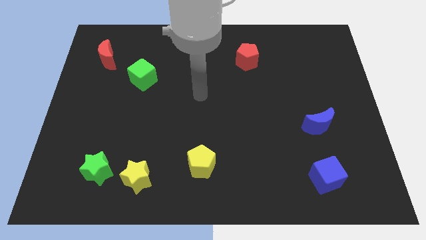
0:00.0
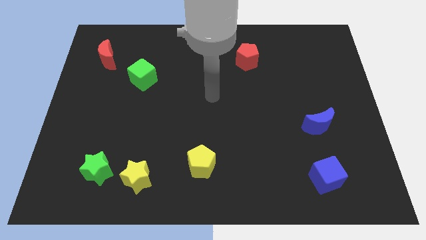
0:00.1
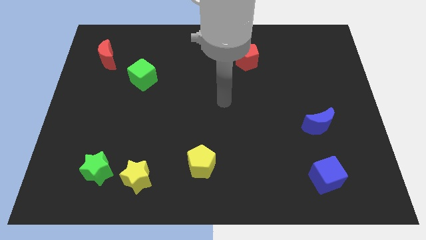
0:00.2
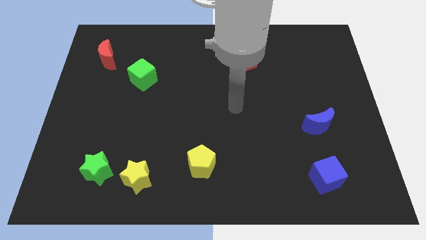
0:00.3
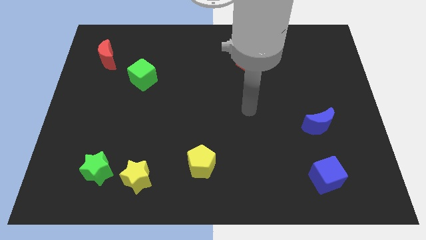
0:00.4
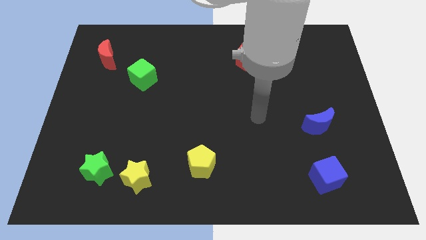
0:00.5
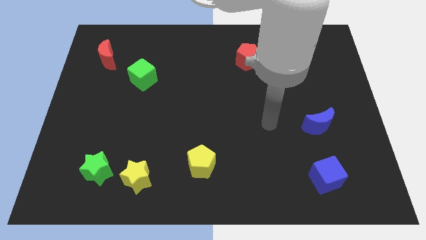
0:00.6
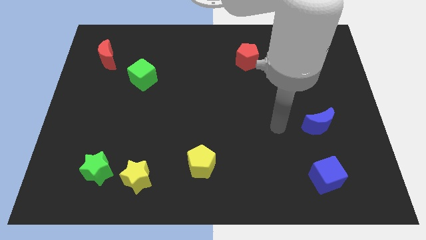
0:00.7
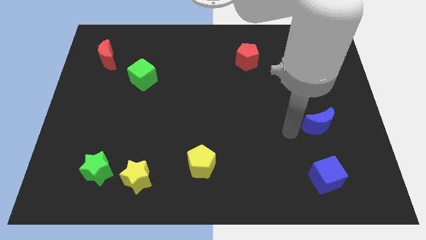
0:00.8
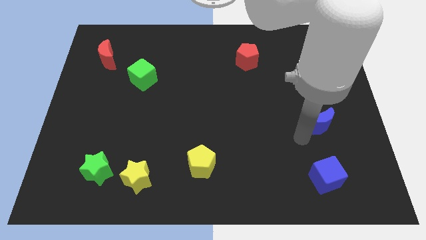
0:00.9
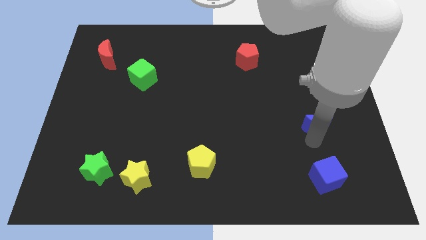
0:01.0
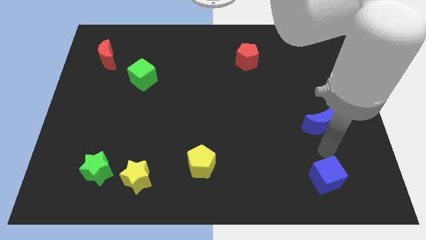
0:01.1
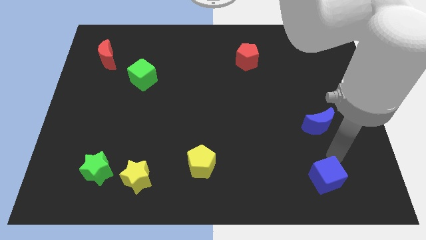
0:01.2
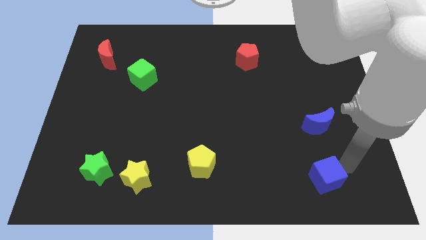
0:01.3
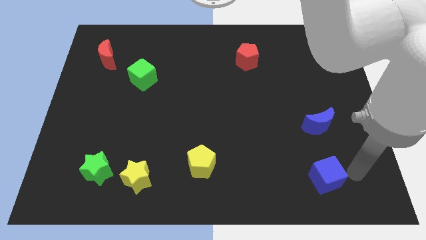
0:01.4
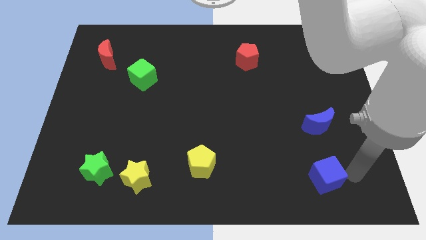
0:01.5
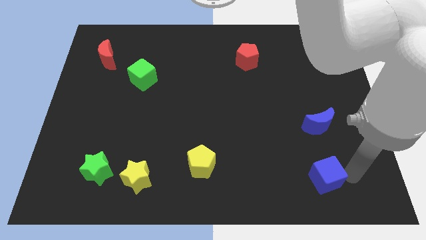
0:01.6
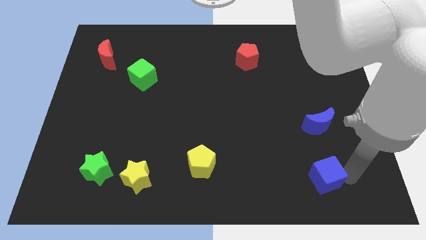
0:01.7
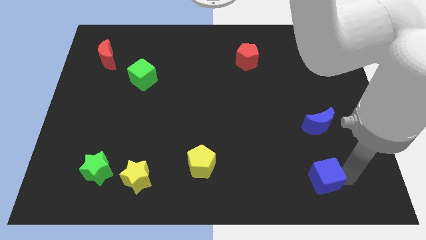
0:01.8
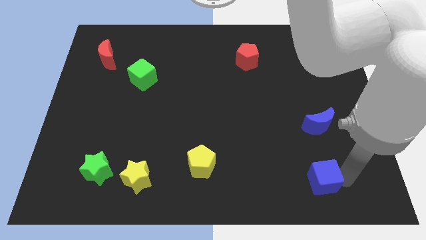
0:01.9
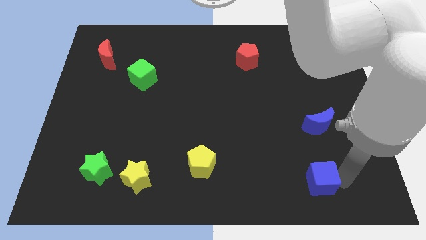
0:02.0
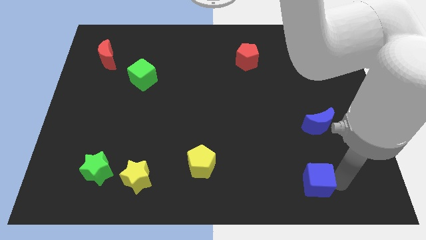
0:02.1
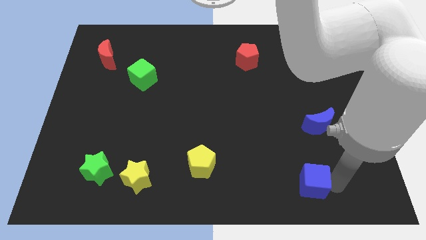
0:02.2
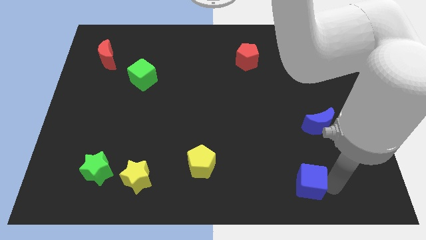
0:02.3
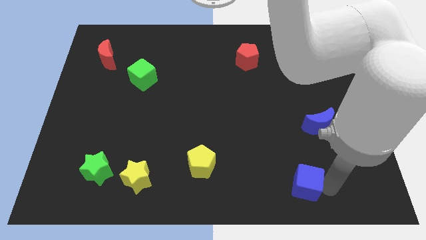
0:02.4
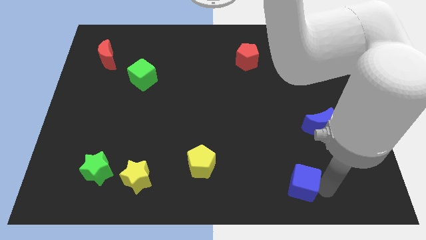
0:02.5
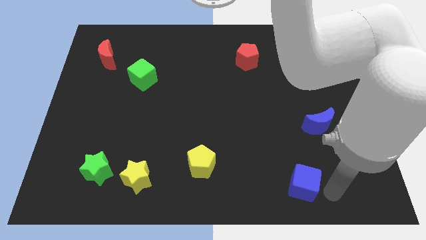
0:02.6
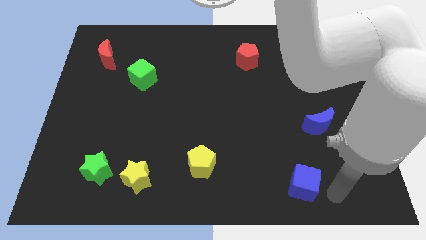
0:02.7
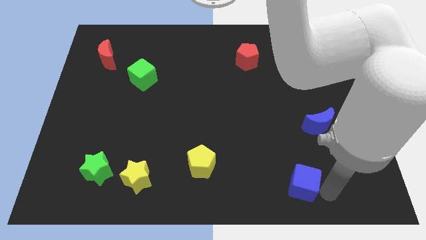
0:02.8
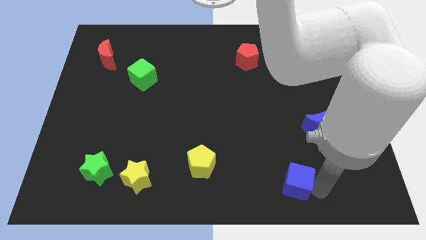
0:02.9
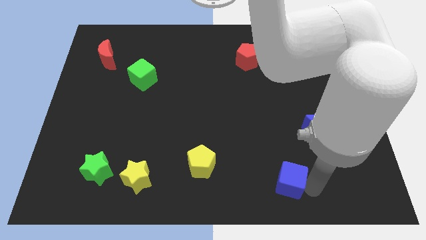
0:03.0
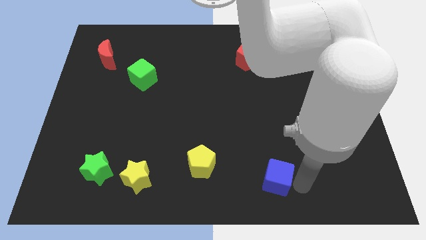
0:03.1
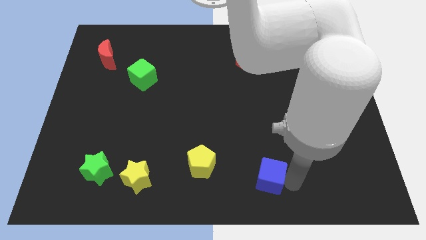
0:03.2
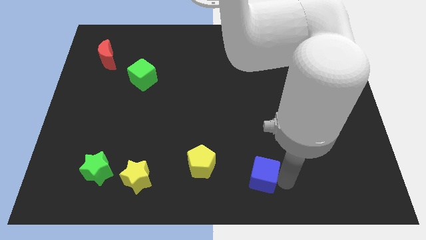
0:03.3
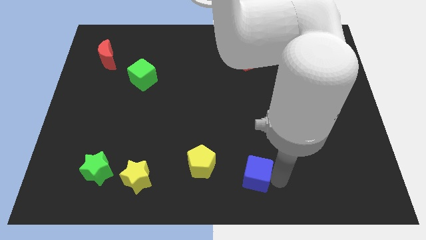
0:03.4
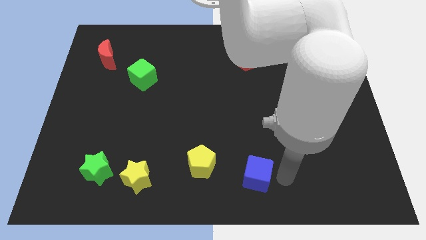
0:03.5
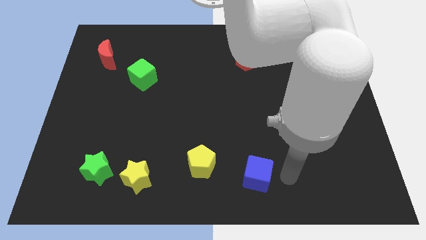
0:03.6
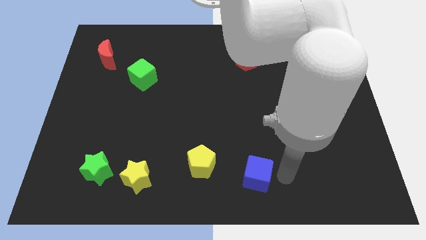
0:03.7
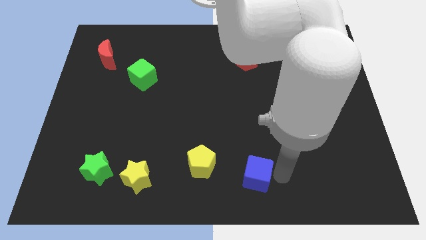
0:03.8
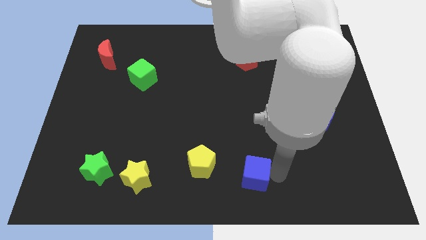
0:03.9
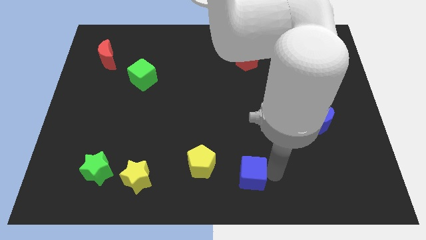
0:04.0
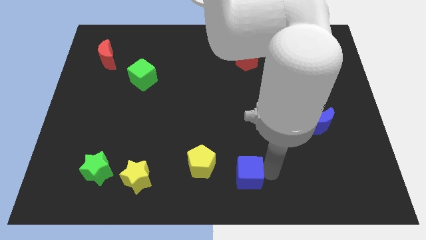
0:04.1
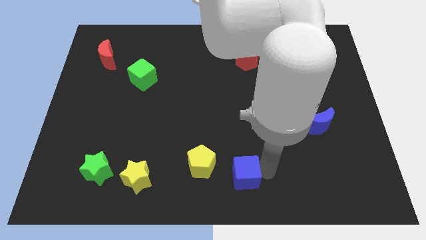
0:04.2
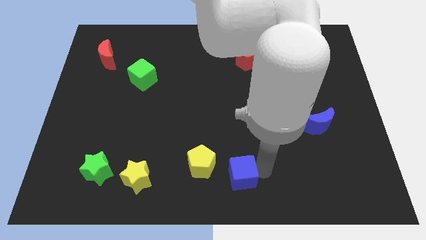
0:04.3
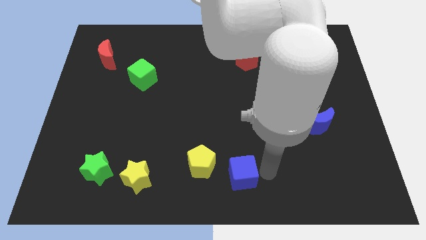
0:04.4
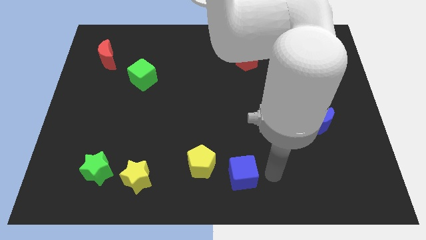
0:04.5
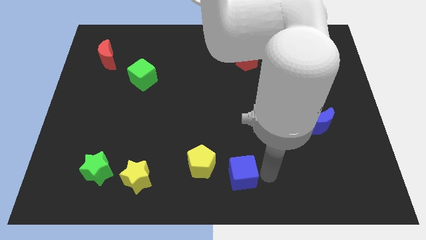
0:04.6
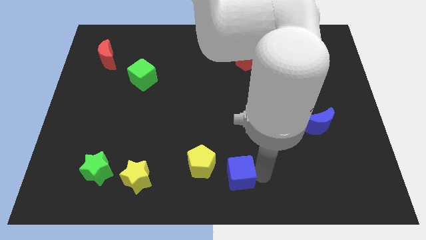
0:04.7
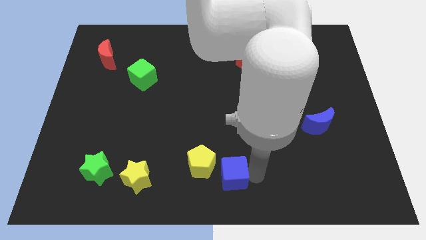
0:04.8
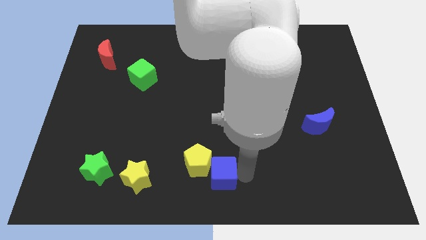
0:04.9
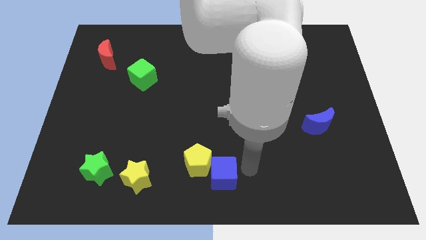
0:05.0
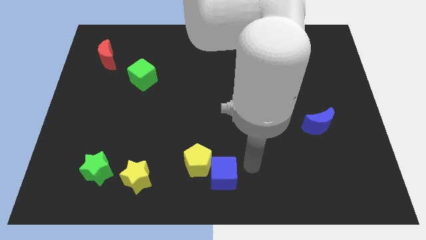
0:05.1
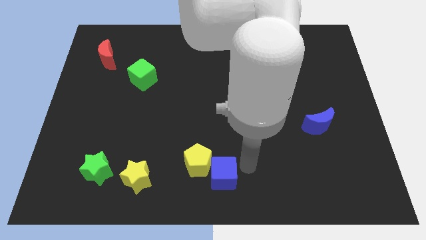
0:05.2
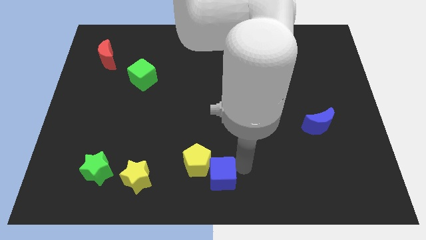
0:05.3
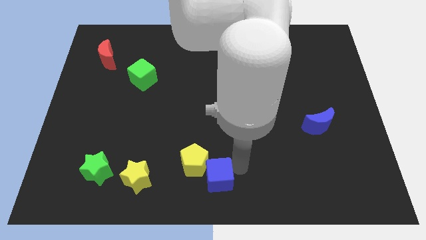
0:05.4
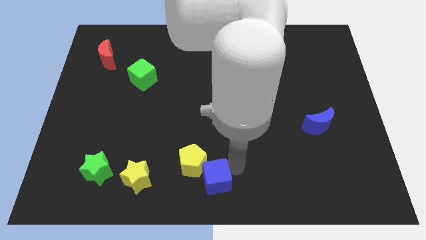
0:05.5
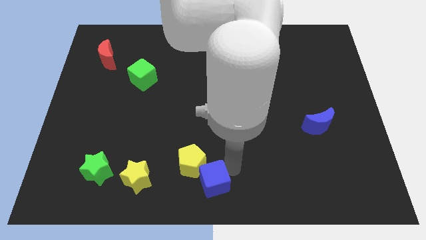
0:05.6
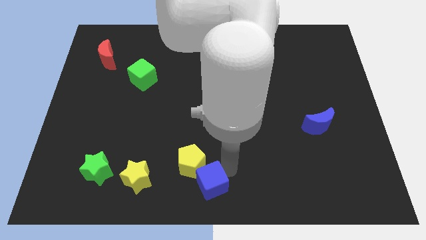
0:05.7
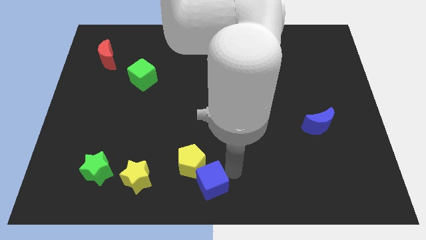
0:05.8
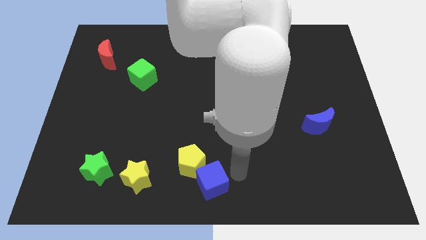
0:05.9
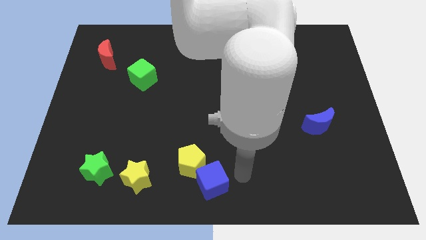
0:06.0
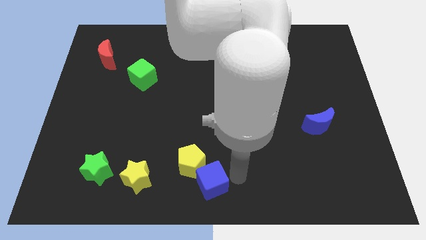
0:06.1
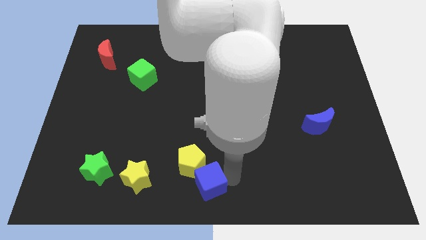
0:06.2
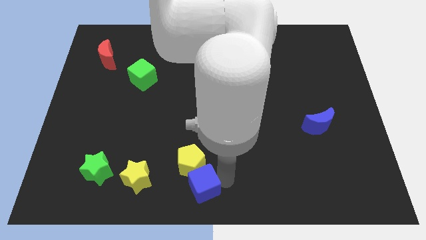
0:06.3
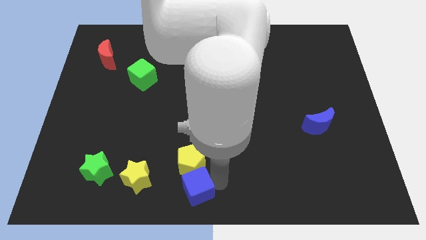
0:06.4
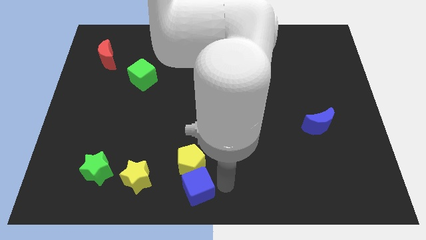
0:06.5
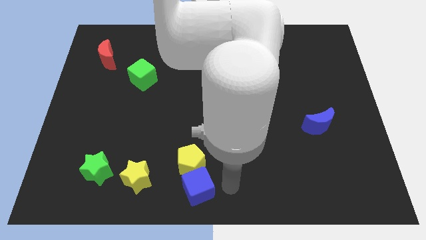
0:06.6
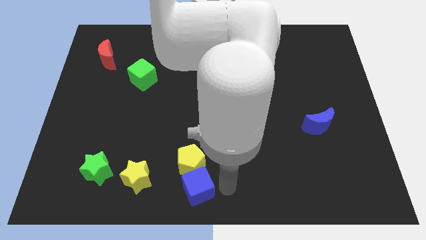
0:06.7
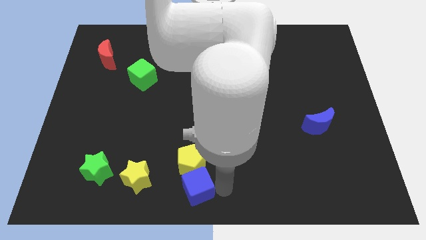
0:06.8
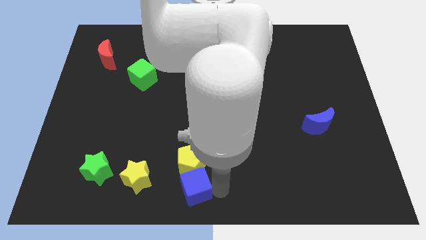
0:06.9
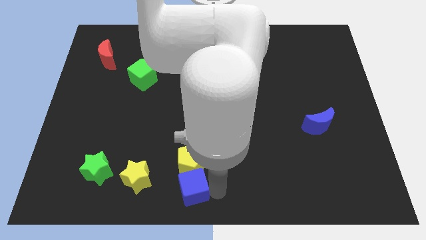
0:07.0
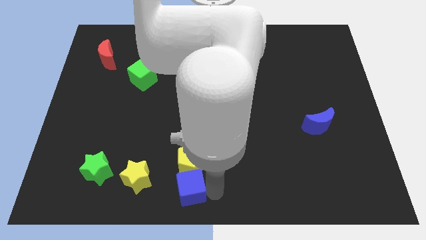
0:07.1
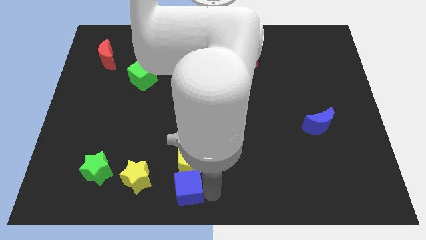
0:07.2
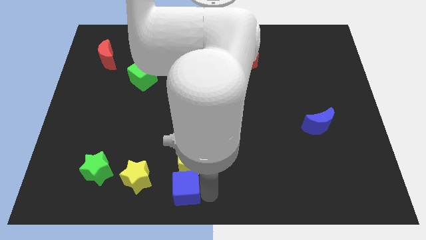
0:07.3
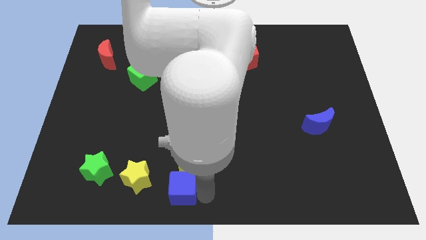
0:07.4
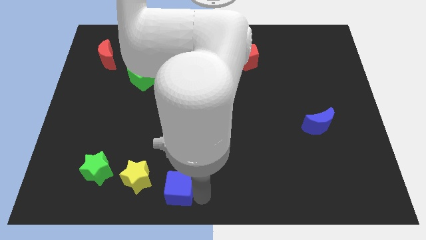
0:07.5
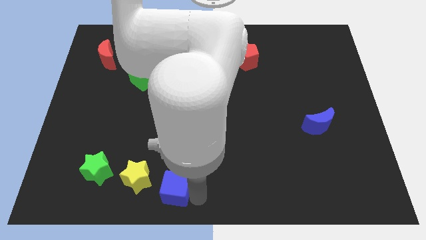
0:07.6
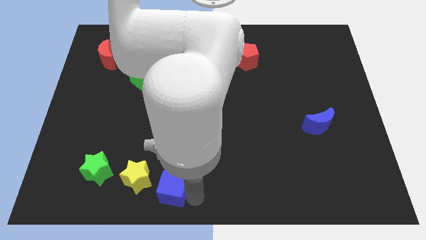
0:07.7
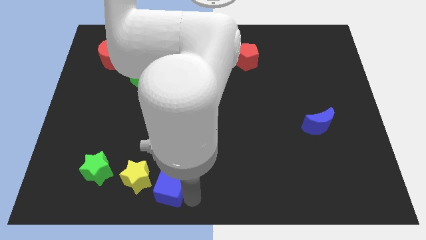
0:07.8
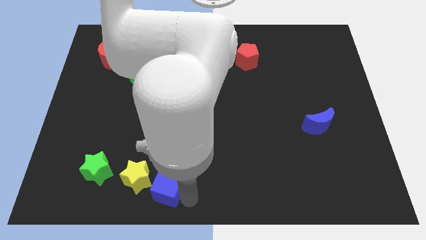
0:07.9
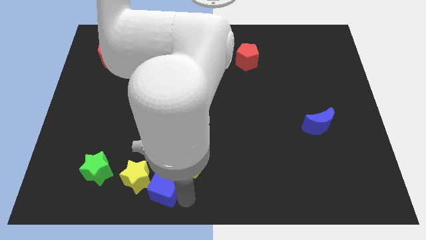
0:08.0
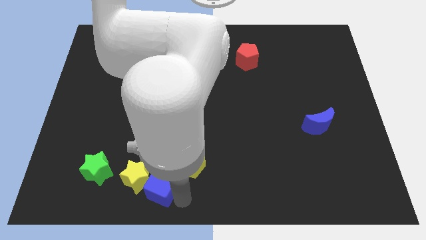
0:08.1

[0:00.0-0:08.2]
move the blue cube close to the yellow star
